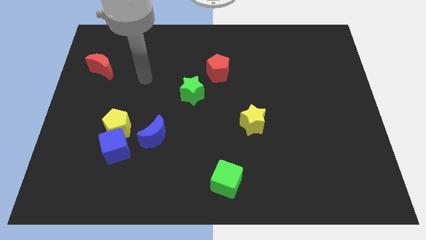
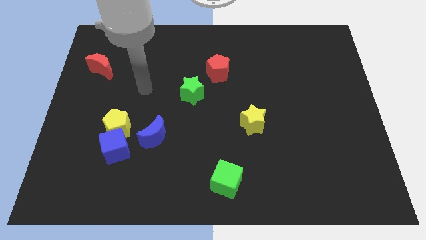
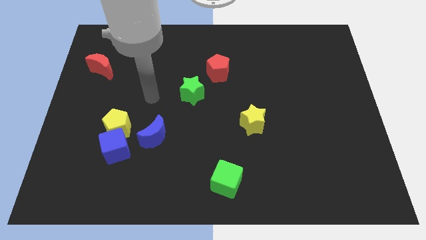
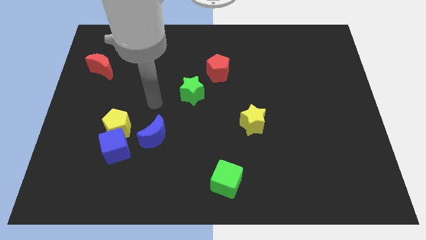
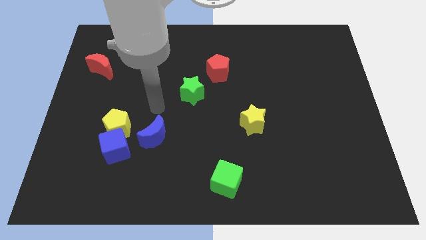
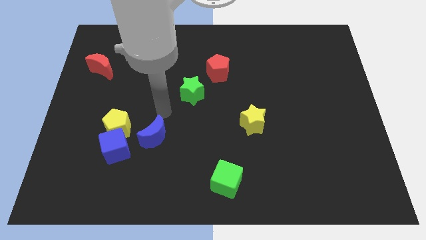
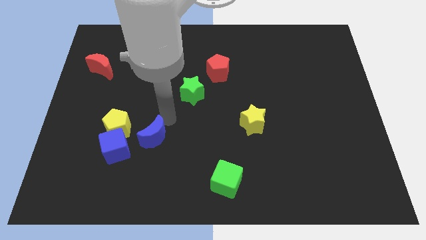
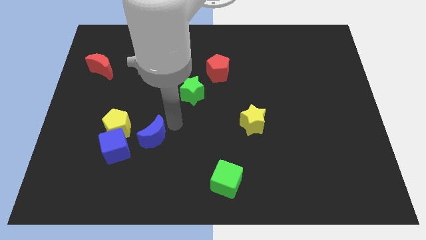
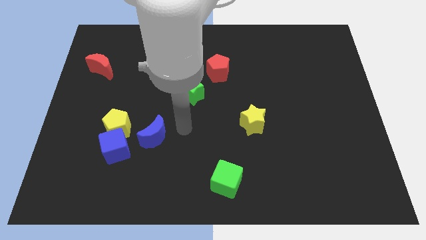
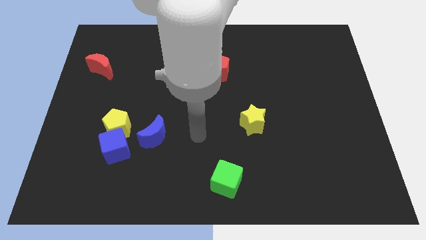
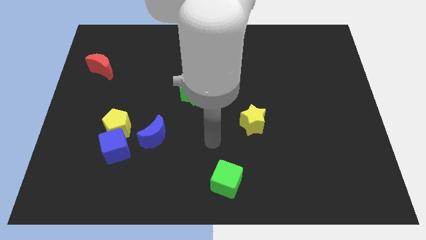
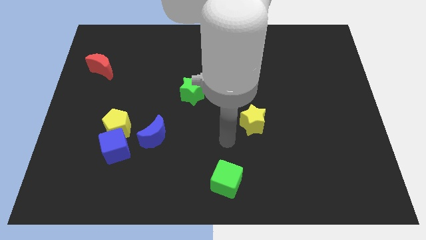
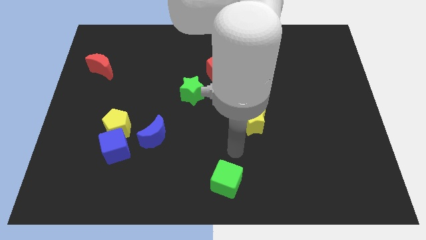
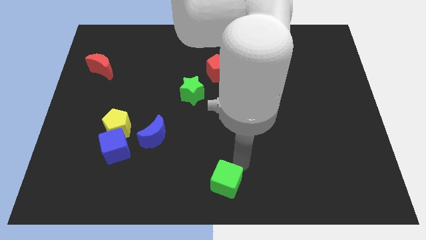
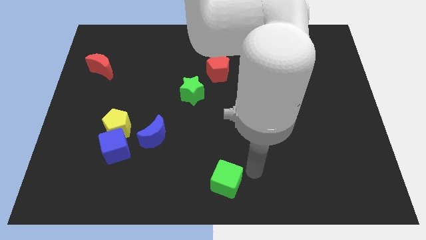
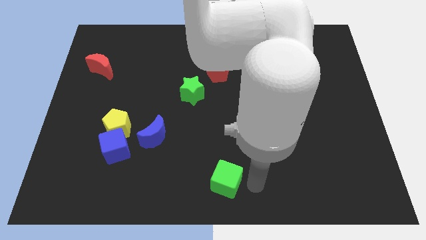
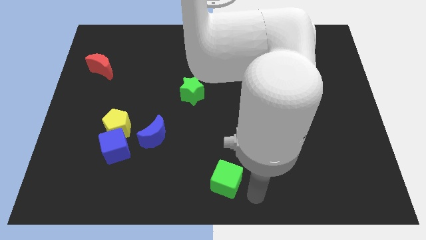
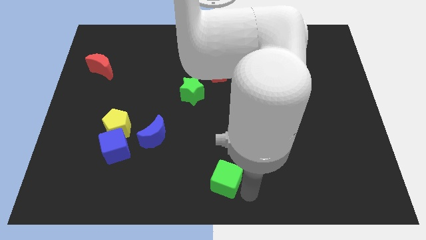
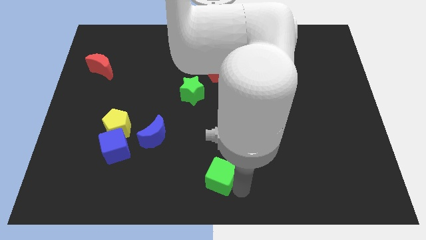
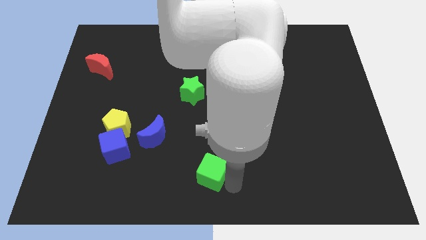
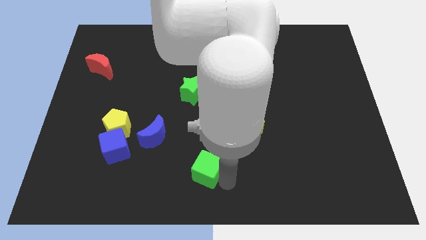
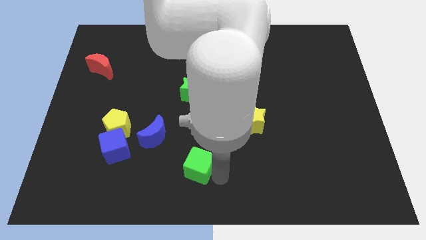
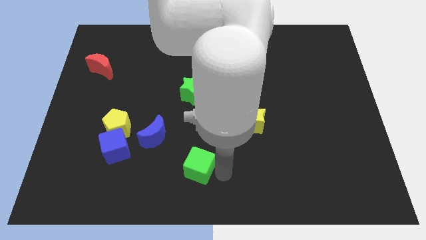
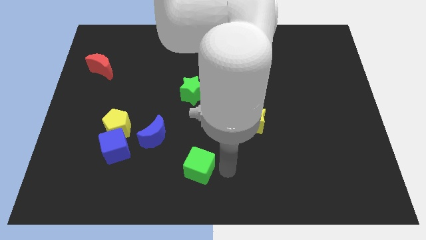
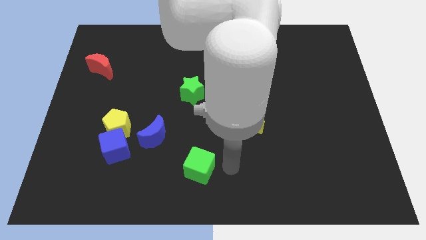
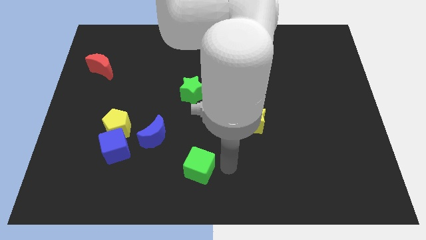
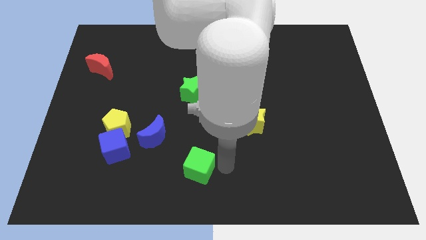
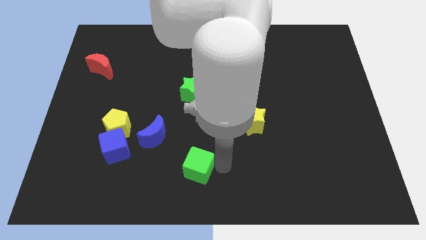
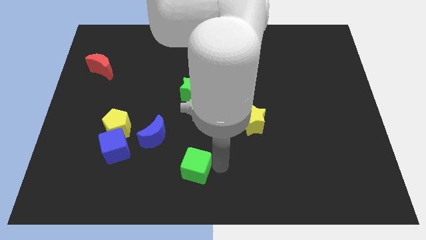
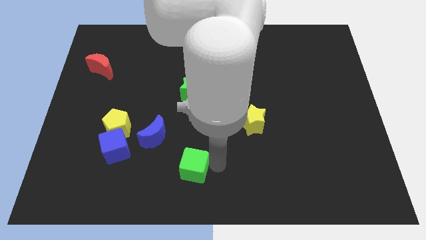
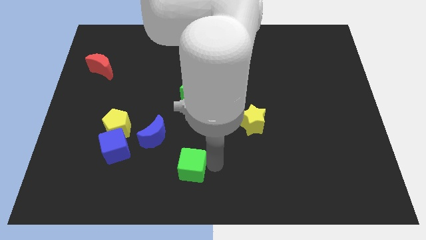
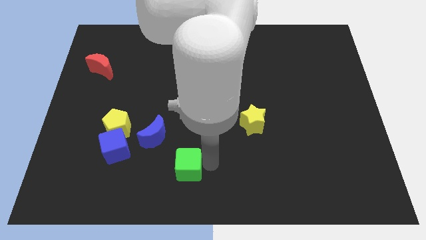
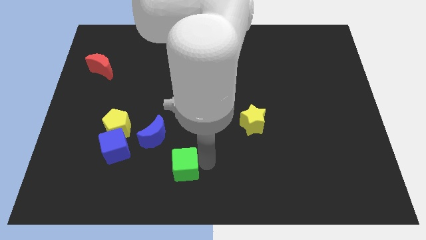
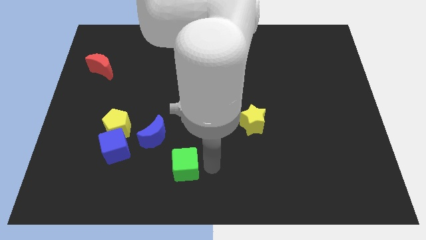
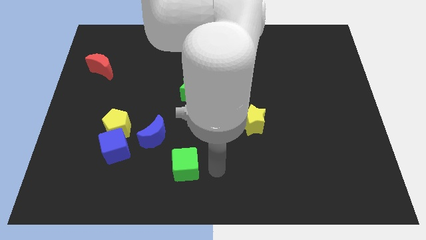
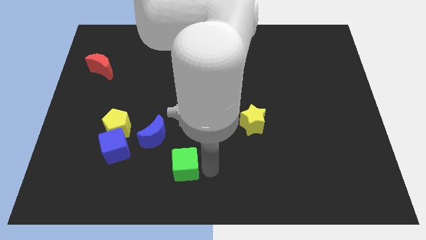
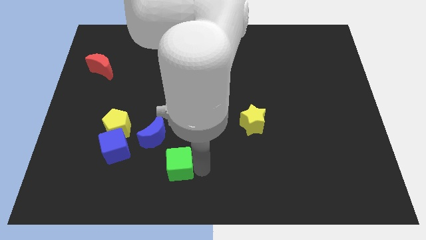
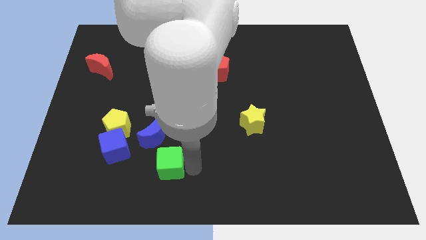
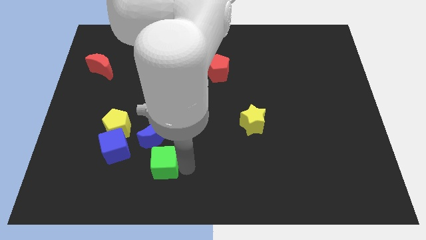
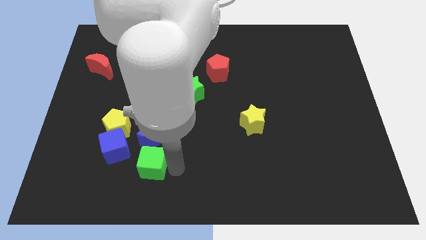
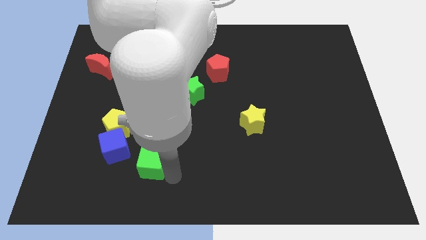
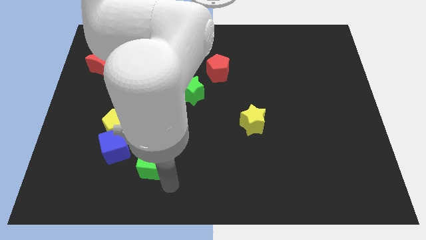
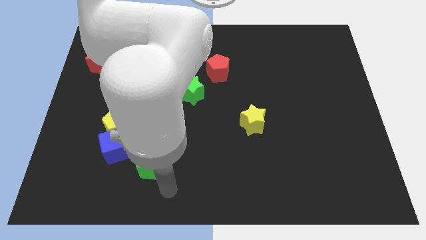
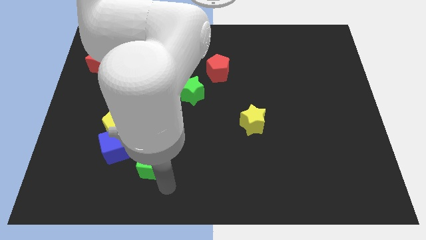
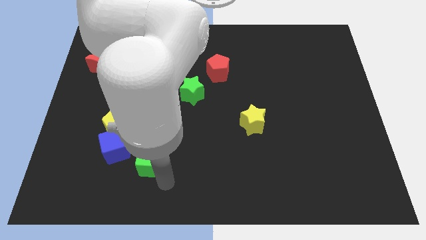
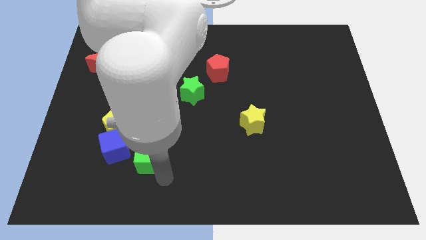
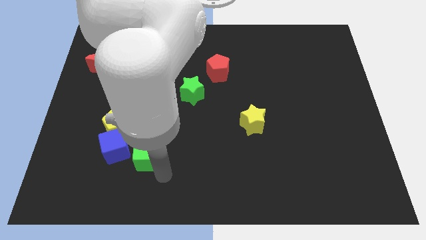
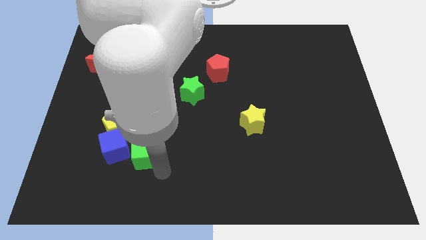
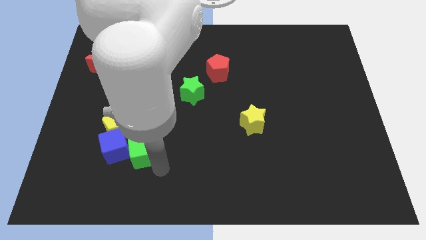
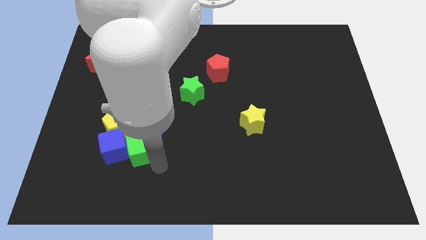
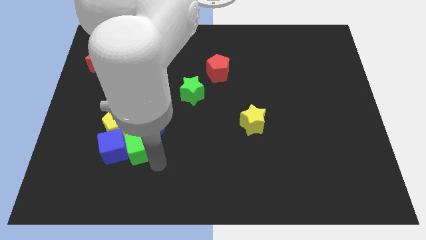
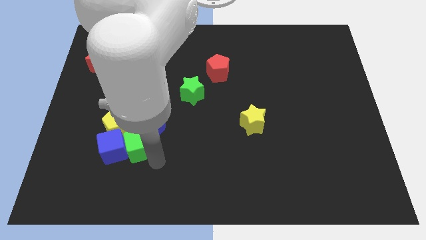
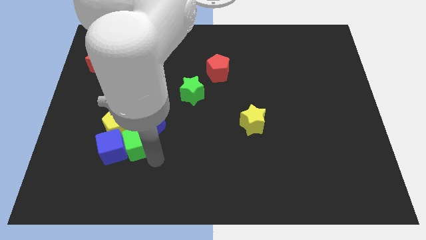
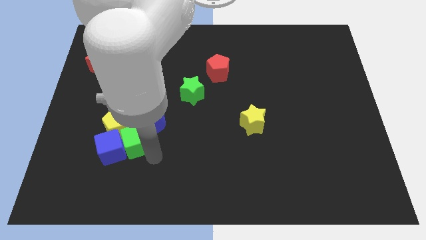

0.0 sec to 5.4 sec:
move the green cube close to the yellow pentagon

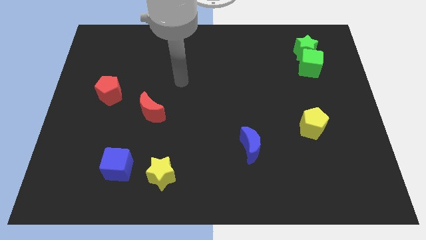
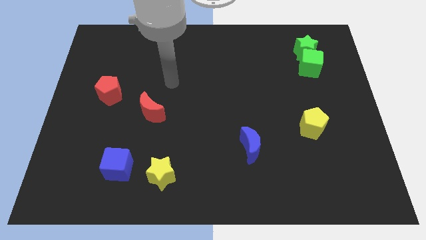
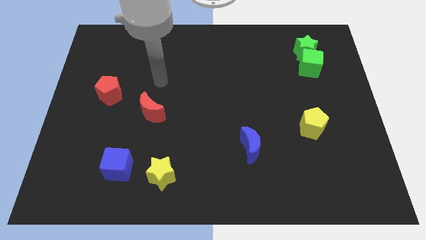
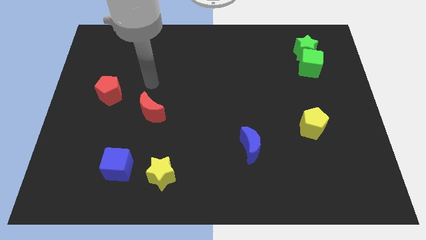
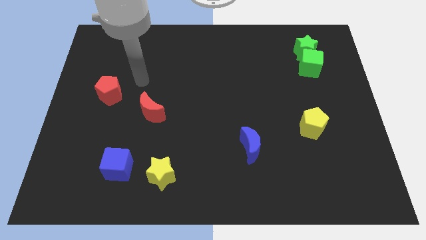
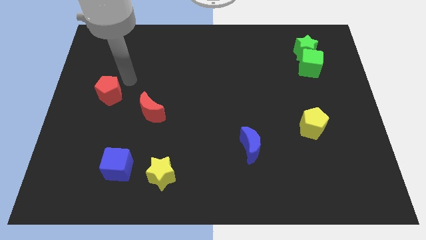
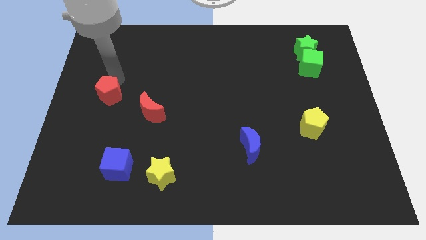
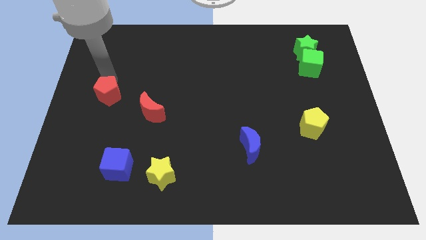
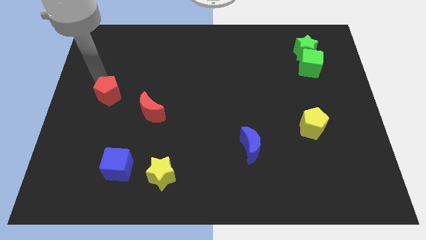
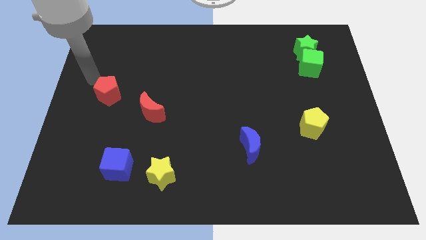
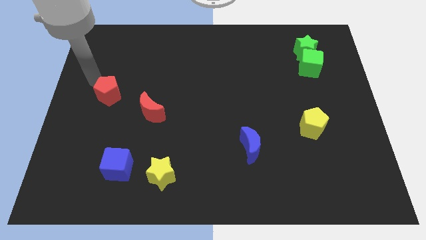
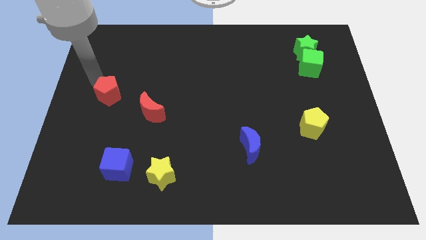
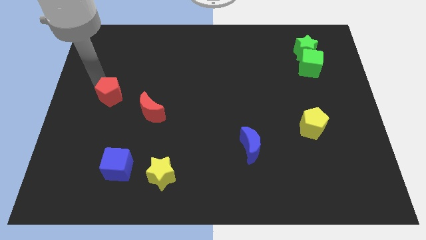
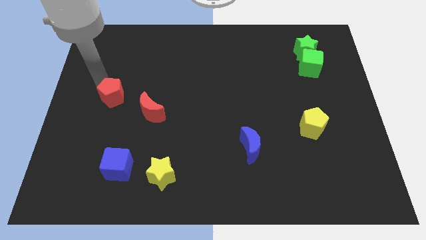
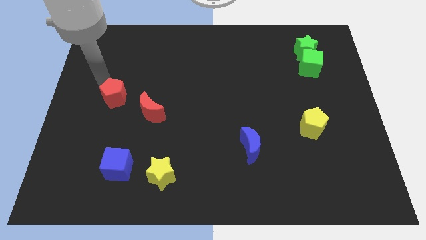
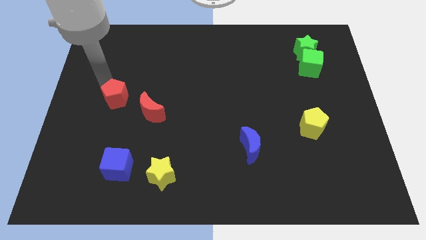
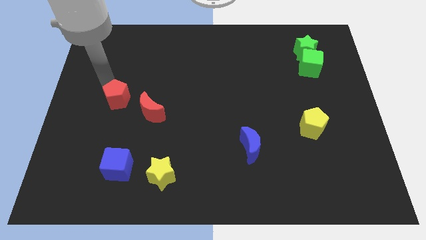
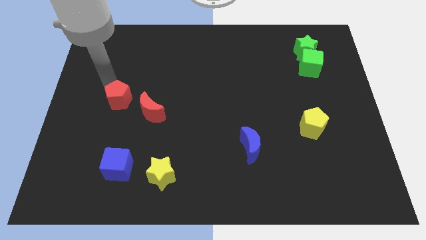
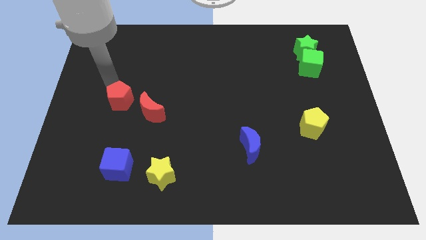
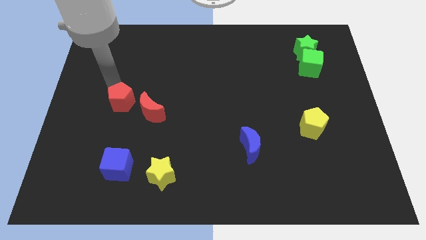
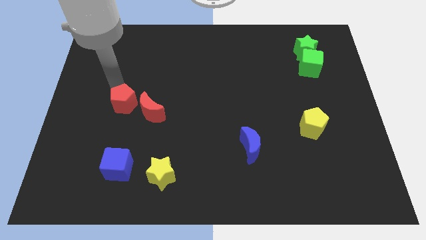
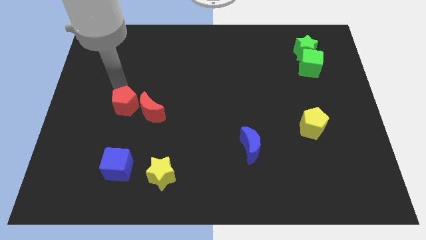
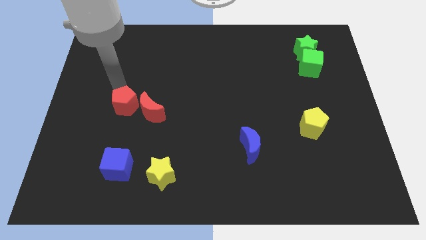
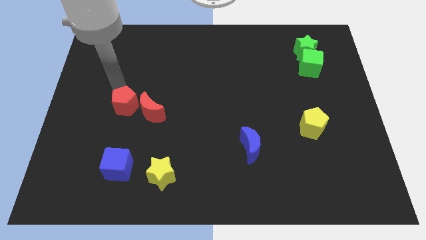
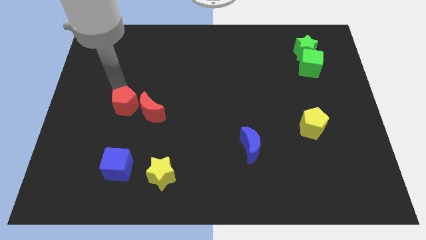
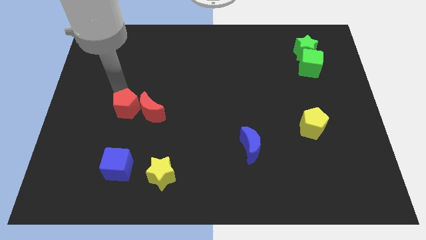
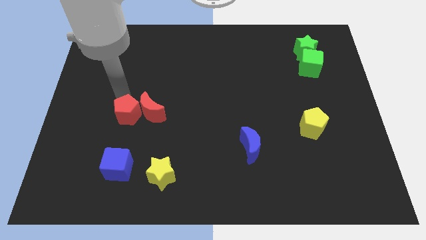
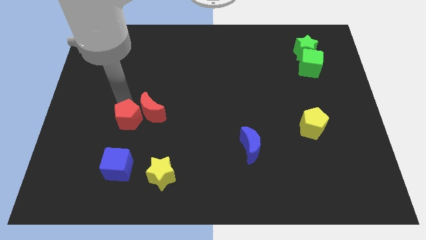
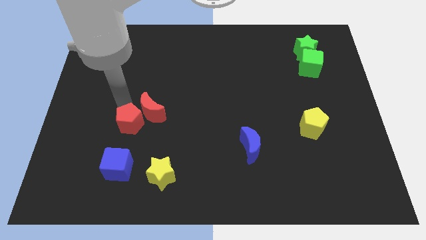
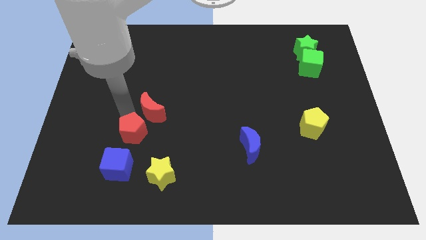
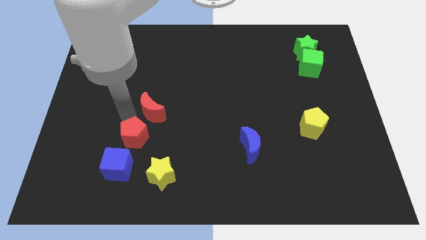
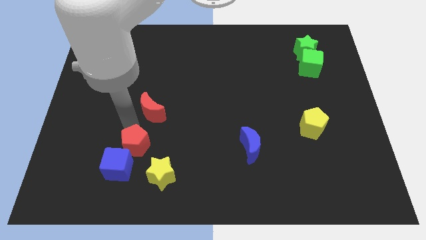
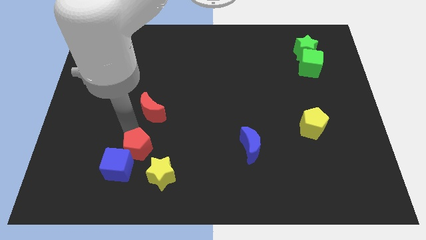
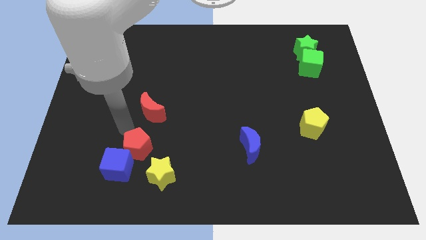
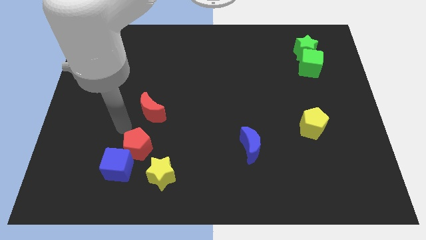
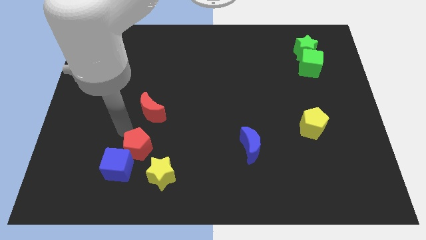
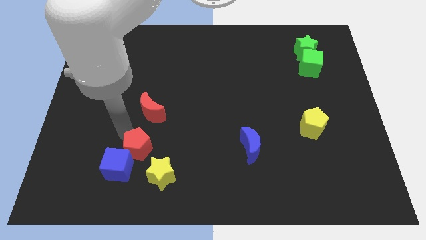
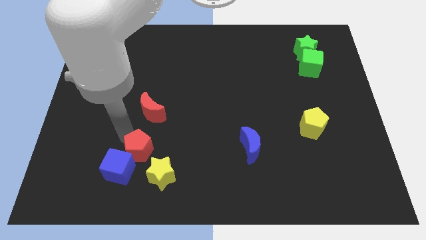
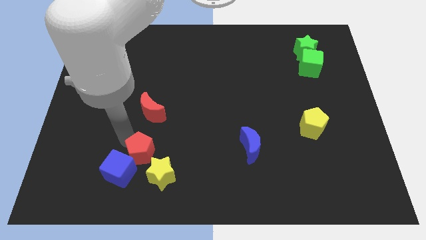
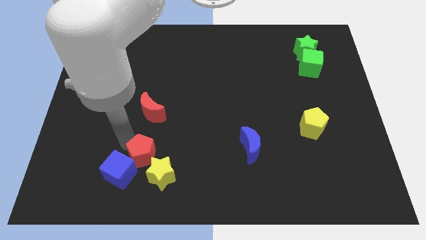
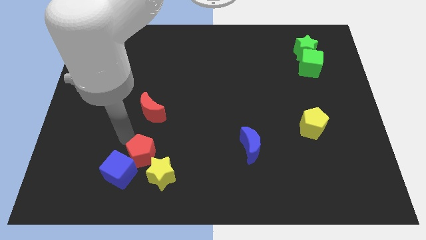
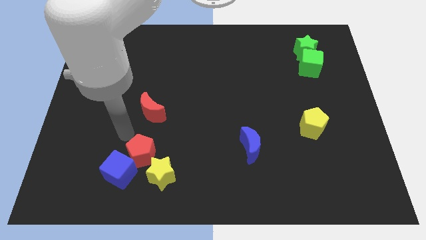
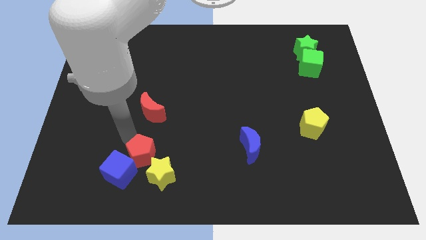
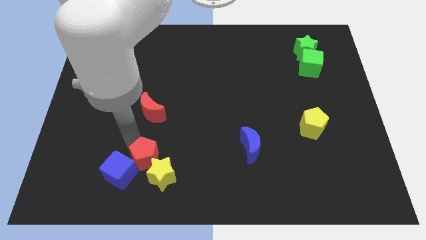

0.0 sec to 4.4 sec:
slide the red pentagon close to the yellow star
